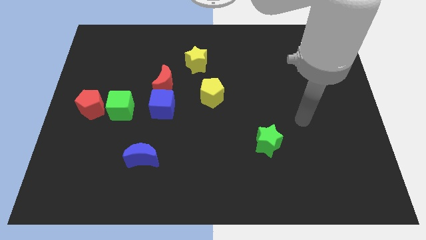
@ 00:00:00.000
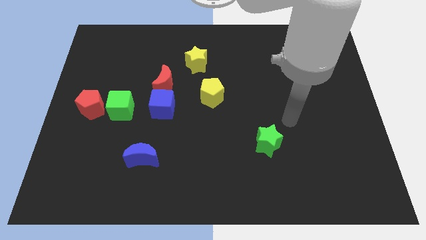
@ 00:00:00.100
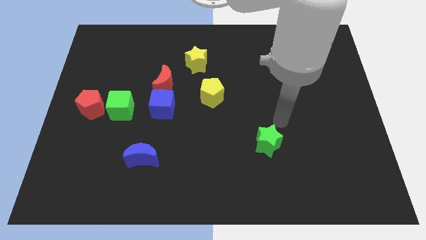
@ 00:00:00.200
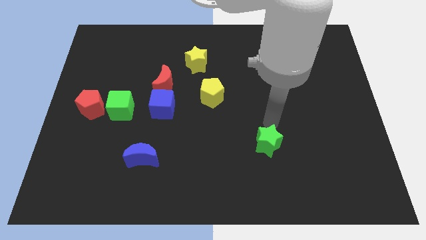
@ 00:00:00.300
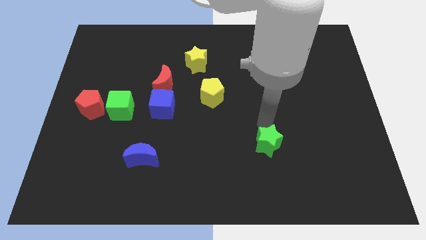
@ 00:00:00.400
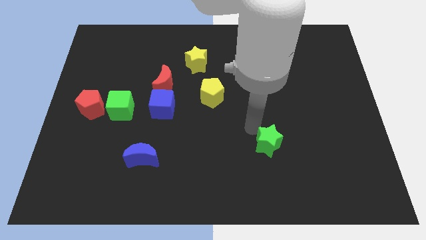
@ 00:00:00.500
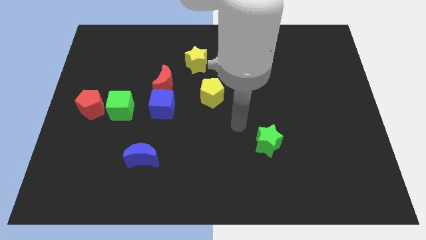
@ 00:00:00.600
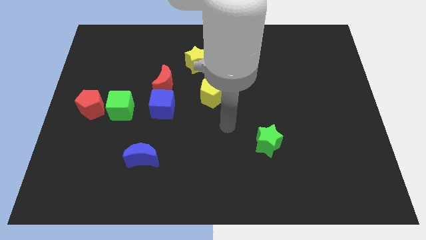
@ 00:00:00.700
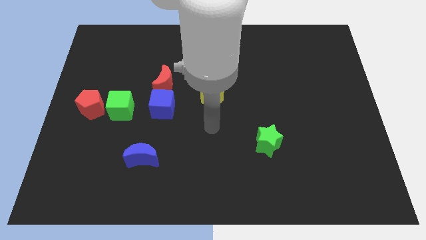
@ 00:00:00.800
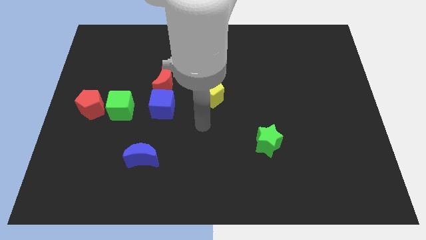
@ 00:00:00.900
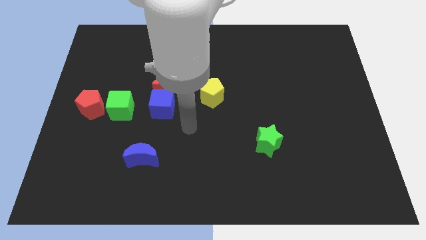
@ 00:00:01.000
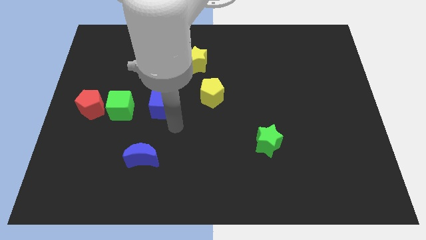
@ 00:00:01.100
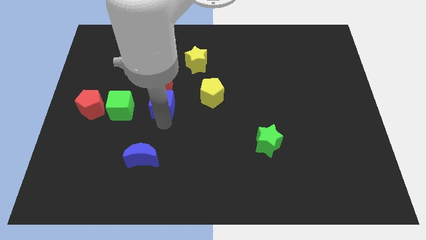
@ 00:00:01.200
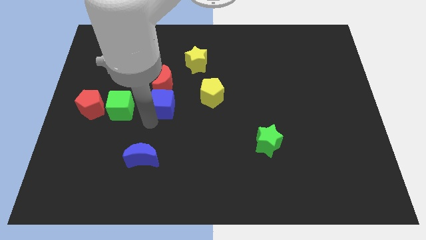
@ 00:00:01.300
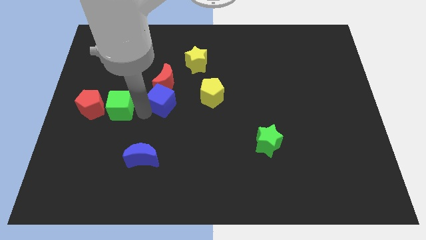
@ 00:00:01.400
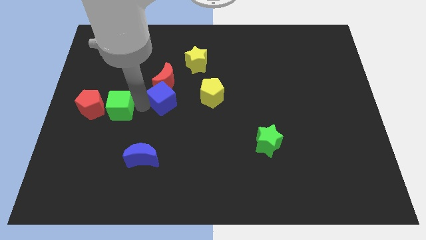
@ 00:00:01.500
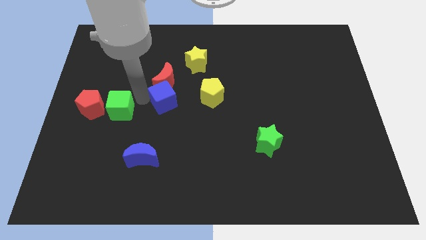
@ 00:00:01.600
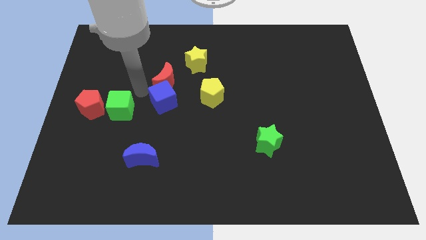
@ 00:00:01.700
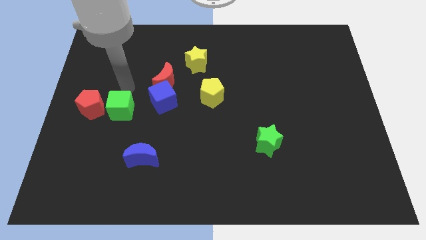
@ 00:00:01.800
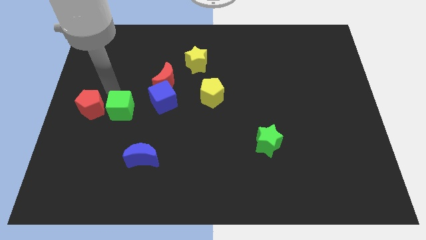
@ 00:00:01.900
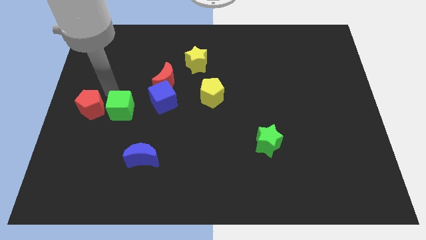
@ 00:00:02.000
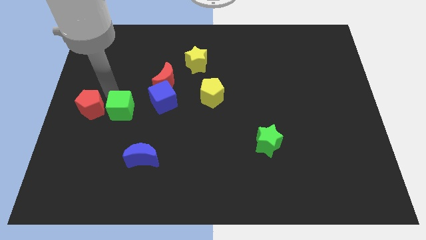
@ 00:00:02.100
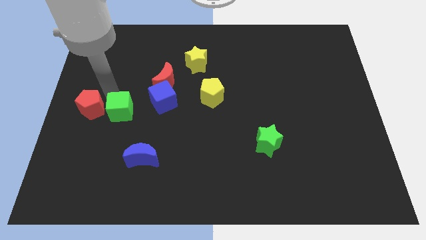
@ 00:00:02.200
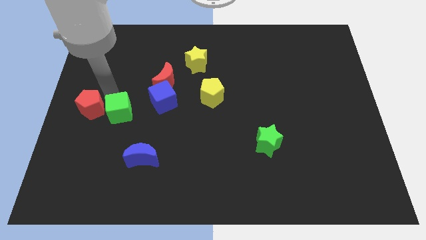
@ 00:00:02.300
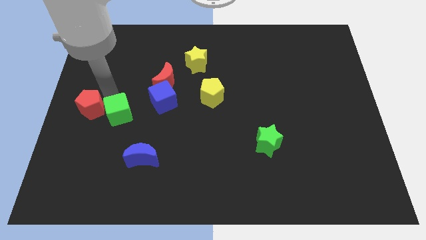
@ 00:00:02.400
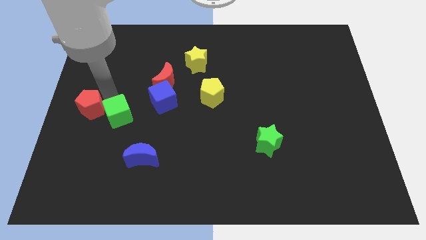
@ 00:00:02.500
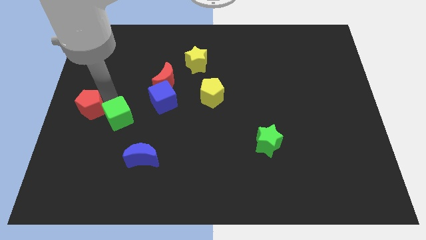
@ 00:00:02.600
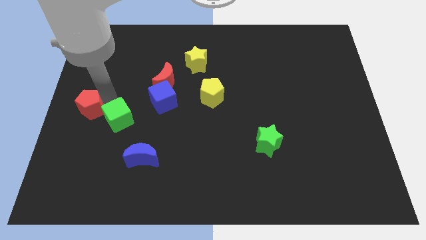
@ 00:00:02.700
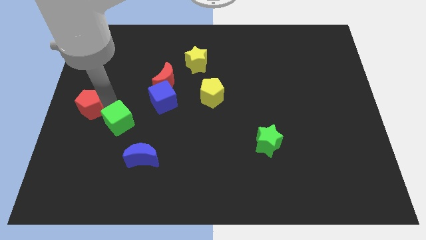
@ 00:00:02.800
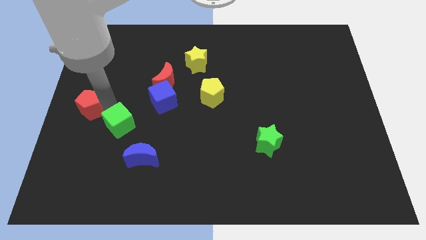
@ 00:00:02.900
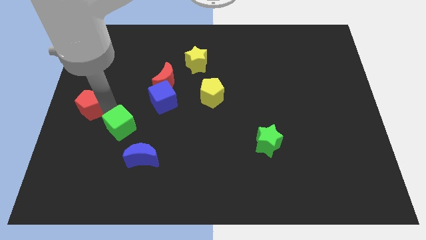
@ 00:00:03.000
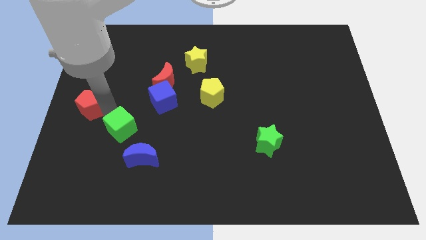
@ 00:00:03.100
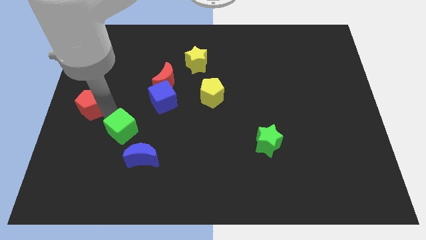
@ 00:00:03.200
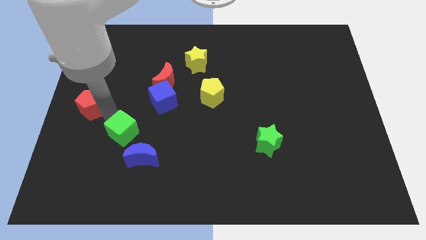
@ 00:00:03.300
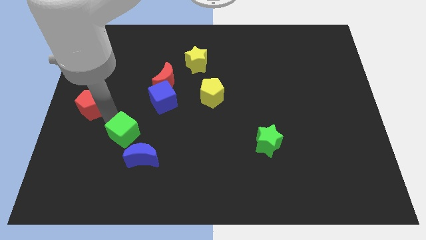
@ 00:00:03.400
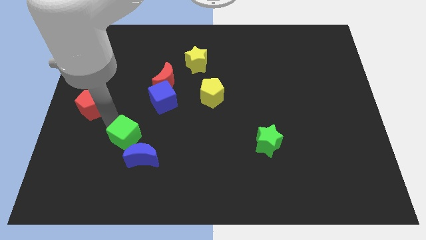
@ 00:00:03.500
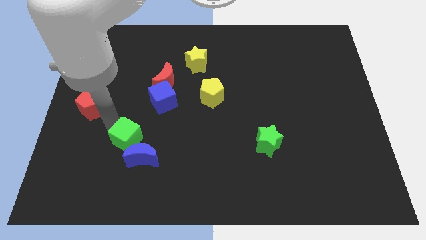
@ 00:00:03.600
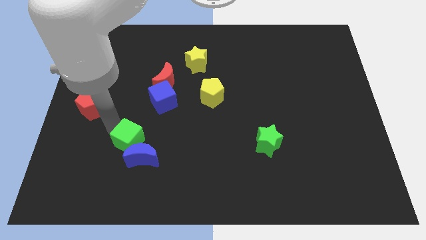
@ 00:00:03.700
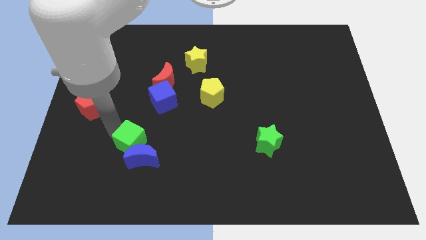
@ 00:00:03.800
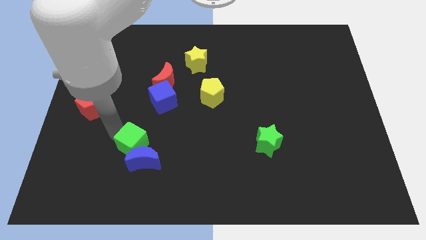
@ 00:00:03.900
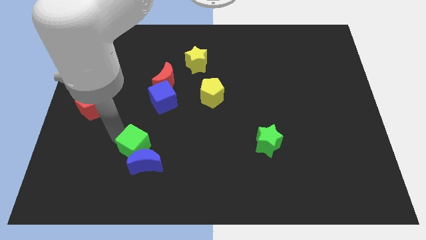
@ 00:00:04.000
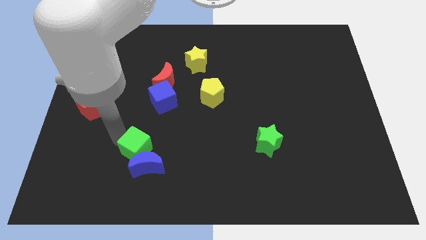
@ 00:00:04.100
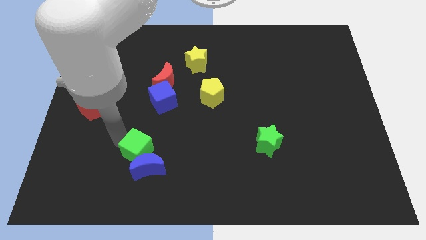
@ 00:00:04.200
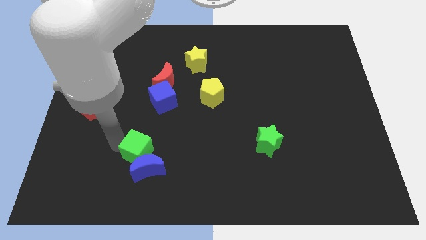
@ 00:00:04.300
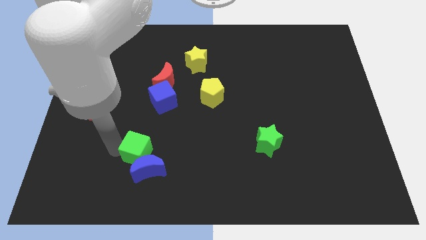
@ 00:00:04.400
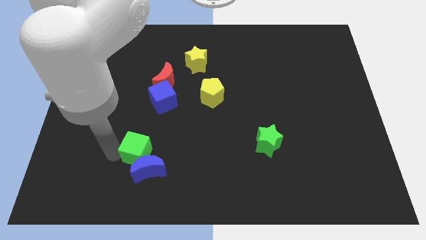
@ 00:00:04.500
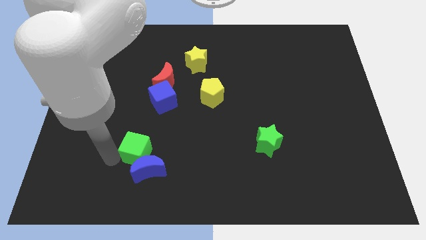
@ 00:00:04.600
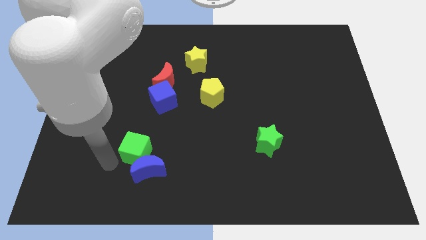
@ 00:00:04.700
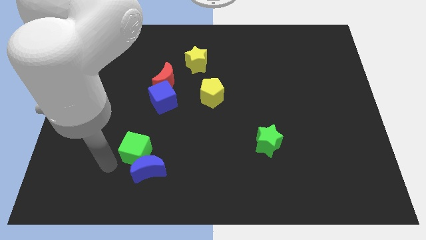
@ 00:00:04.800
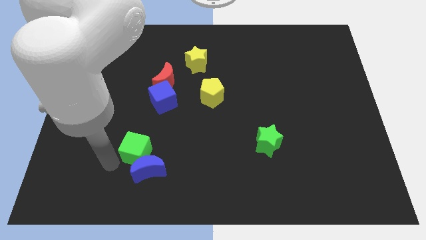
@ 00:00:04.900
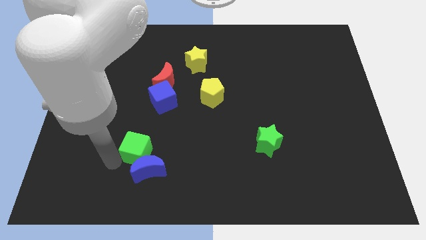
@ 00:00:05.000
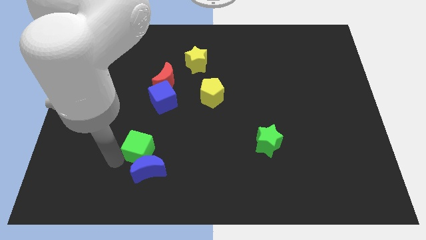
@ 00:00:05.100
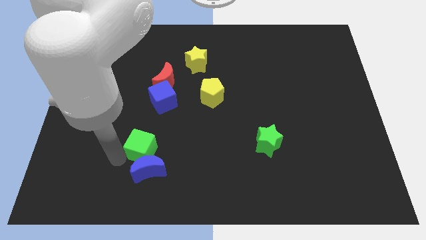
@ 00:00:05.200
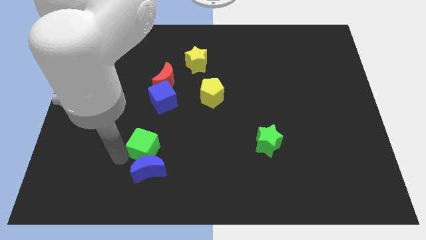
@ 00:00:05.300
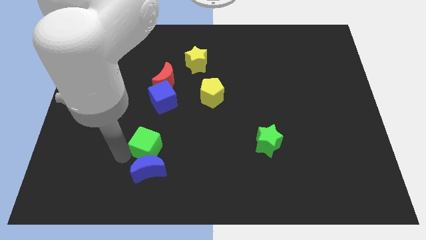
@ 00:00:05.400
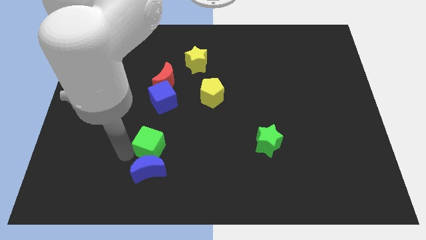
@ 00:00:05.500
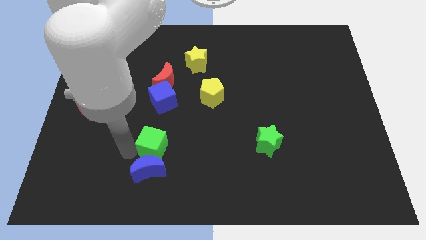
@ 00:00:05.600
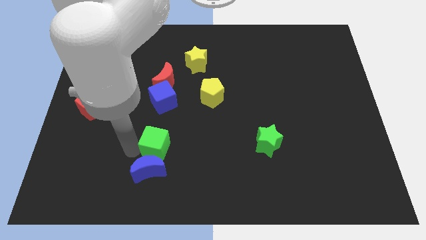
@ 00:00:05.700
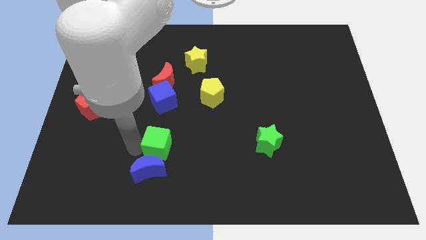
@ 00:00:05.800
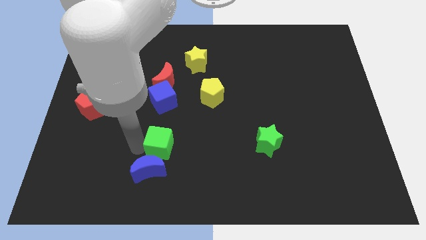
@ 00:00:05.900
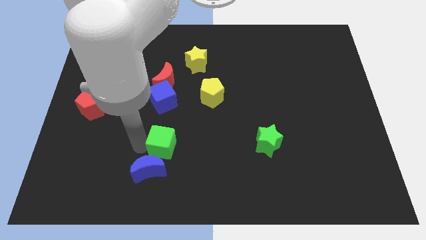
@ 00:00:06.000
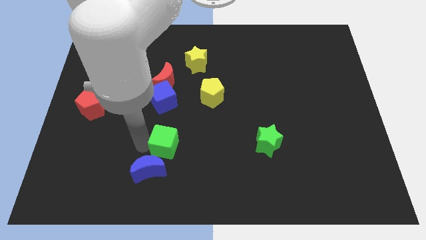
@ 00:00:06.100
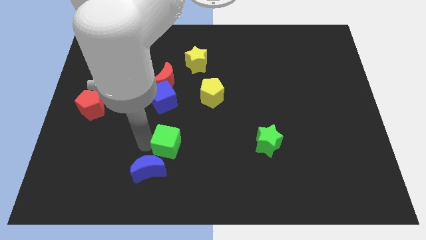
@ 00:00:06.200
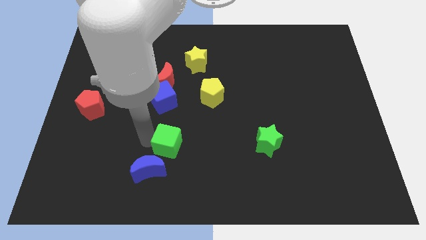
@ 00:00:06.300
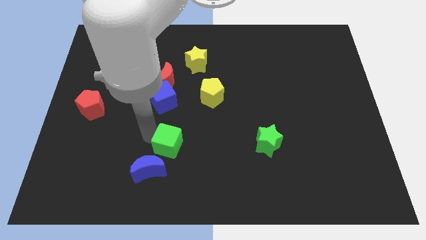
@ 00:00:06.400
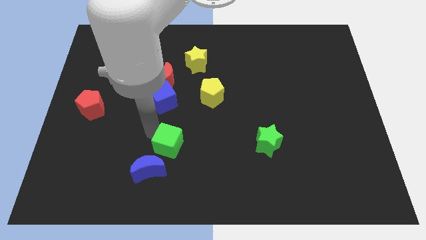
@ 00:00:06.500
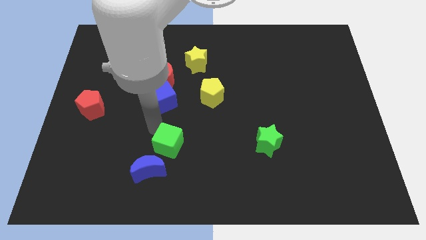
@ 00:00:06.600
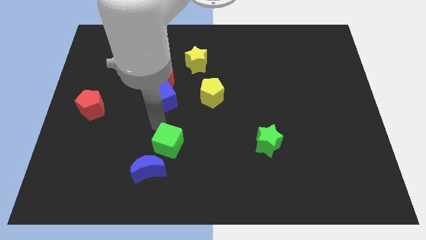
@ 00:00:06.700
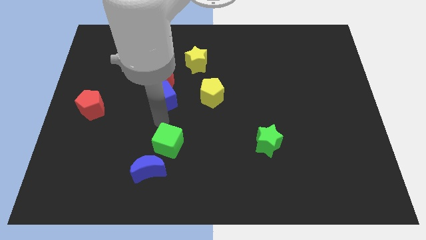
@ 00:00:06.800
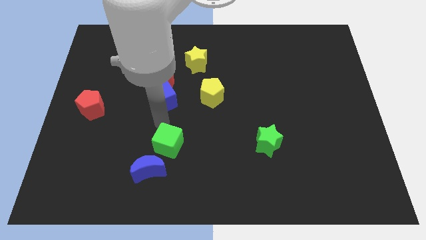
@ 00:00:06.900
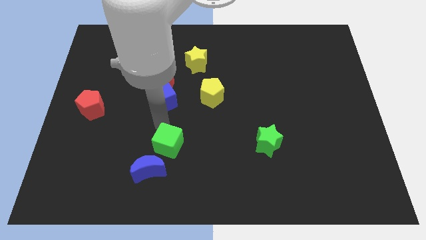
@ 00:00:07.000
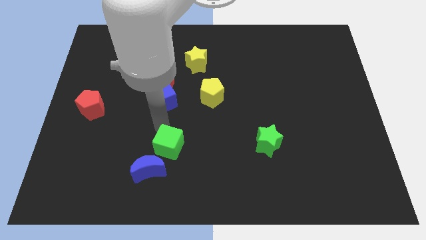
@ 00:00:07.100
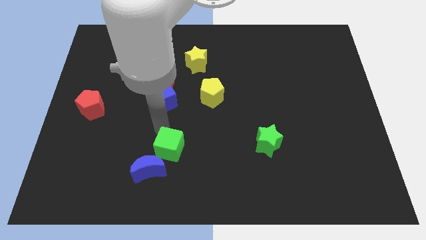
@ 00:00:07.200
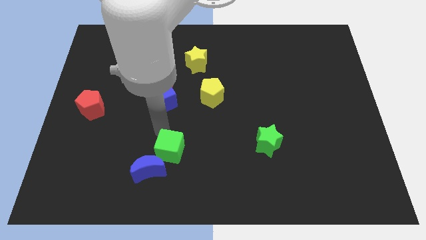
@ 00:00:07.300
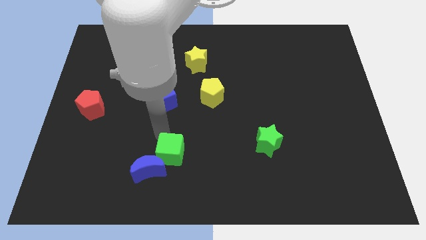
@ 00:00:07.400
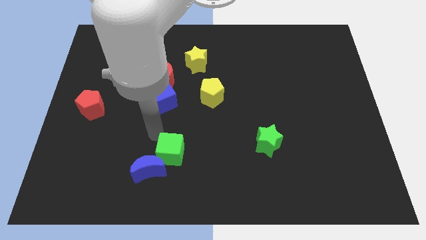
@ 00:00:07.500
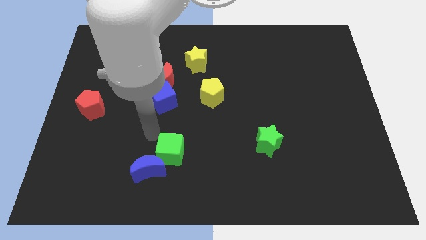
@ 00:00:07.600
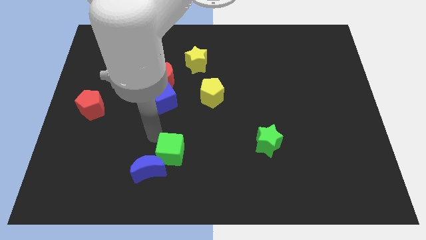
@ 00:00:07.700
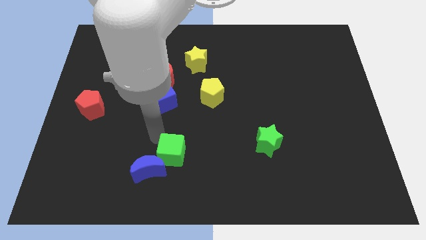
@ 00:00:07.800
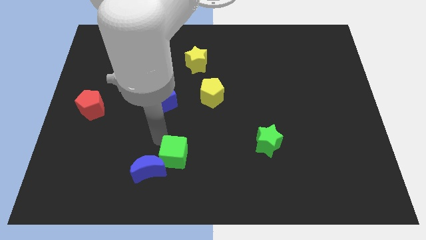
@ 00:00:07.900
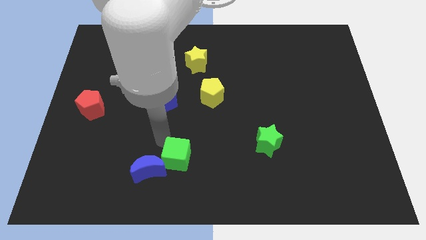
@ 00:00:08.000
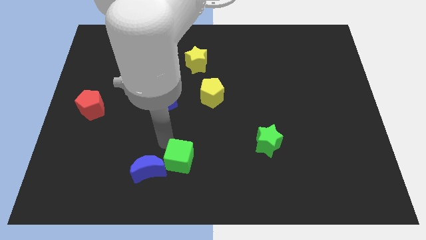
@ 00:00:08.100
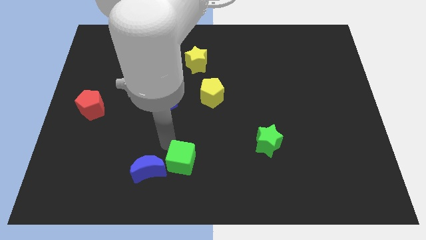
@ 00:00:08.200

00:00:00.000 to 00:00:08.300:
put the green cube to the bottom
